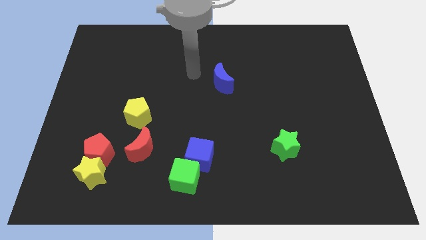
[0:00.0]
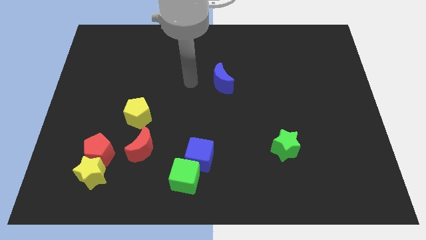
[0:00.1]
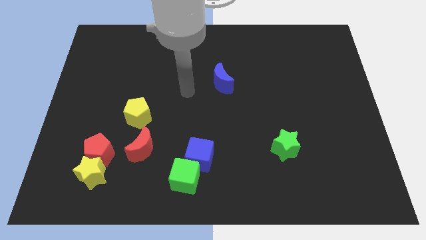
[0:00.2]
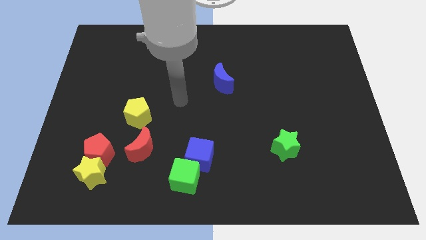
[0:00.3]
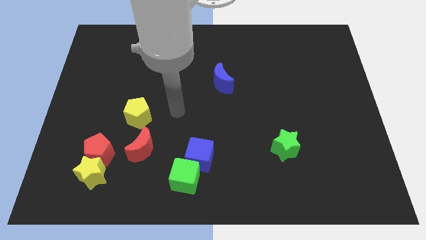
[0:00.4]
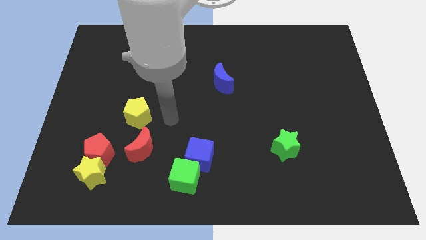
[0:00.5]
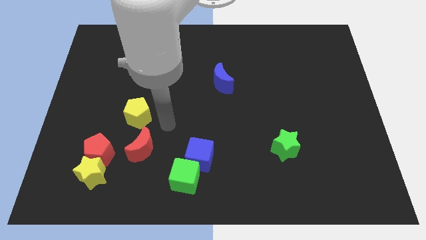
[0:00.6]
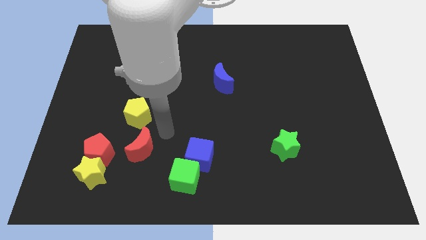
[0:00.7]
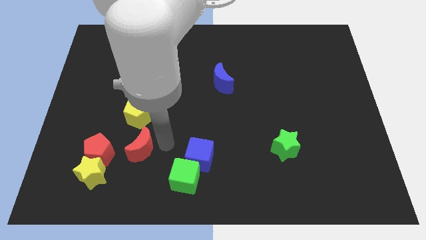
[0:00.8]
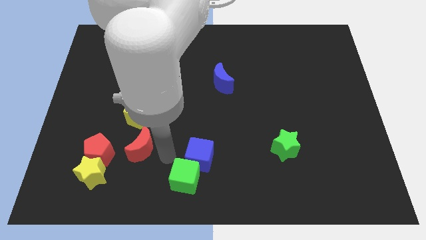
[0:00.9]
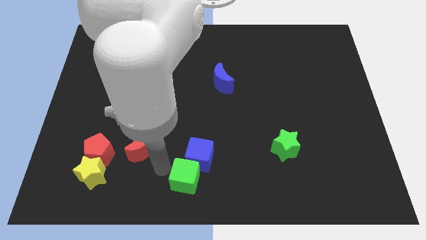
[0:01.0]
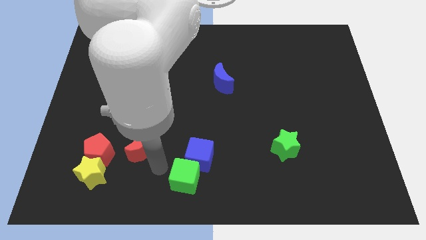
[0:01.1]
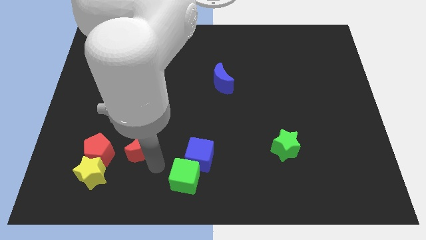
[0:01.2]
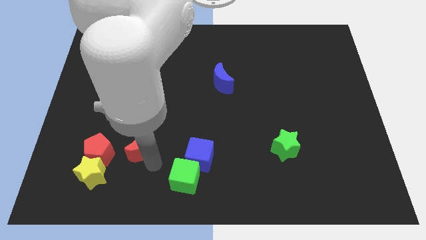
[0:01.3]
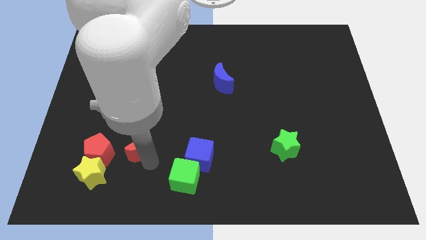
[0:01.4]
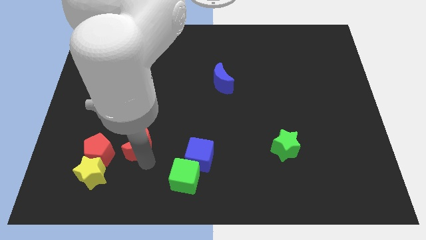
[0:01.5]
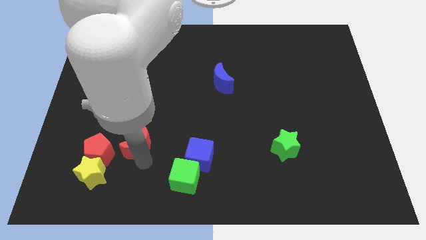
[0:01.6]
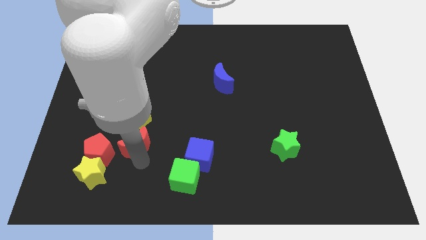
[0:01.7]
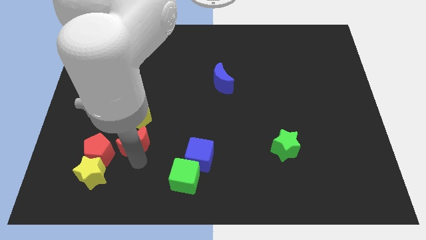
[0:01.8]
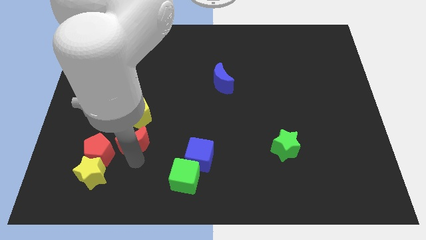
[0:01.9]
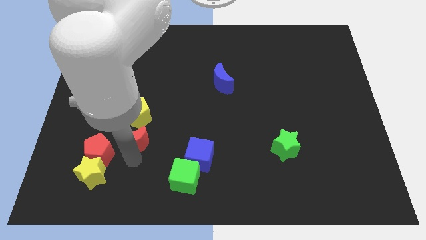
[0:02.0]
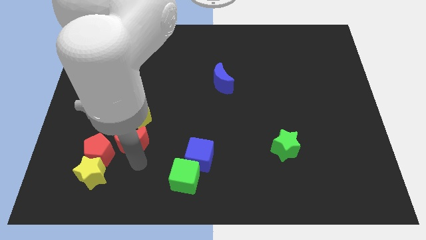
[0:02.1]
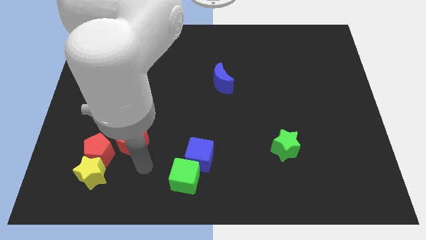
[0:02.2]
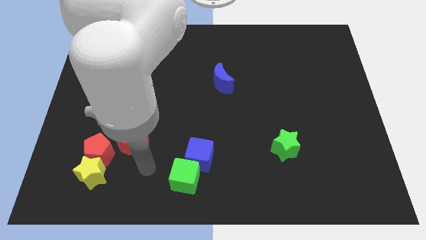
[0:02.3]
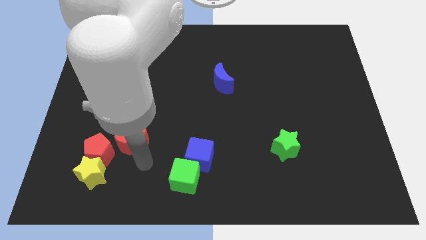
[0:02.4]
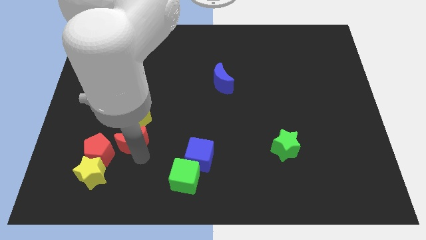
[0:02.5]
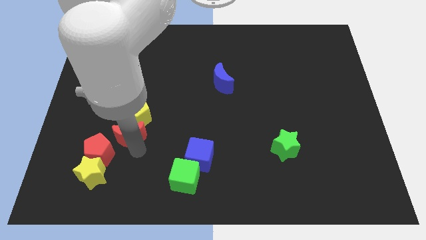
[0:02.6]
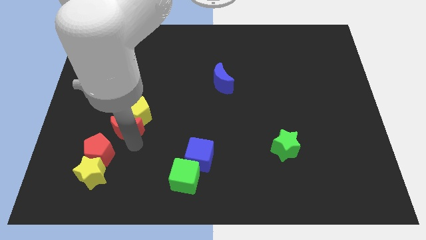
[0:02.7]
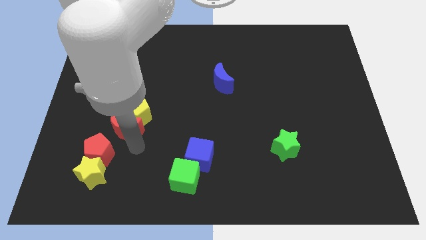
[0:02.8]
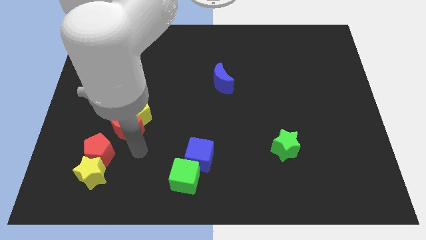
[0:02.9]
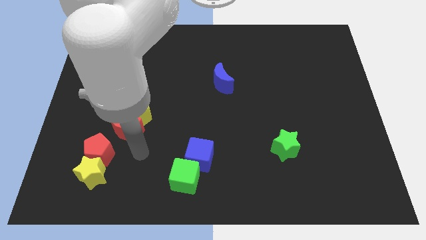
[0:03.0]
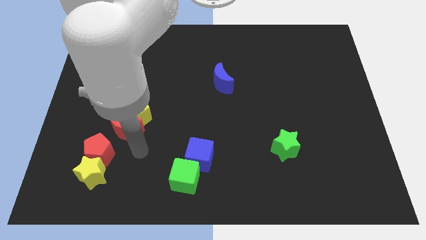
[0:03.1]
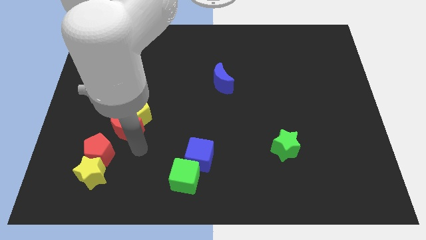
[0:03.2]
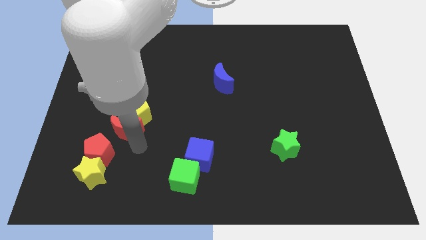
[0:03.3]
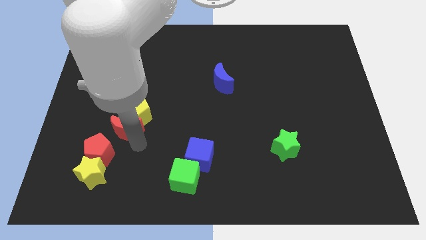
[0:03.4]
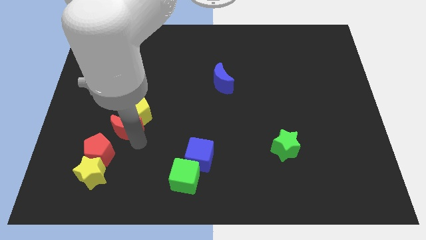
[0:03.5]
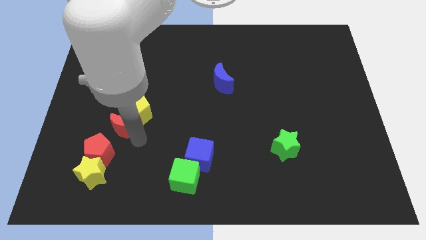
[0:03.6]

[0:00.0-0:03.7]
move the red moon diagonally upwards and to the left slightly

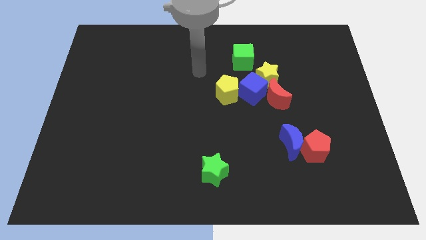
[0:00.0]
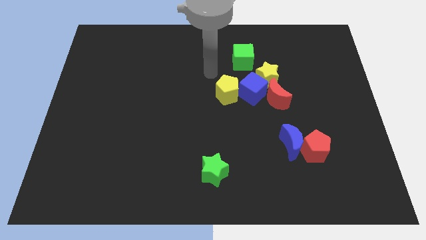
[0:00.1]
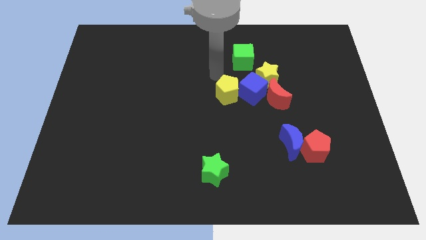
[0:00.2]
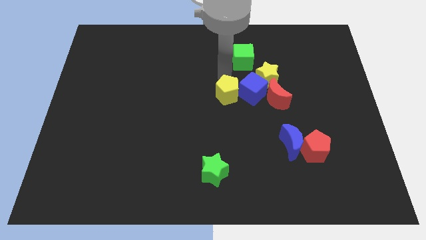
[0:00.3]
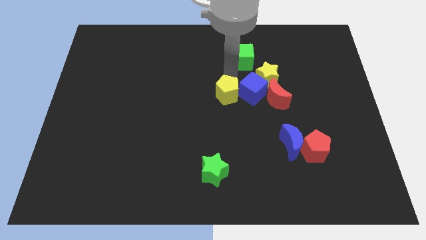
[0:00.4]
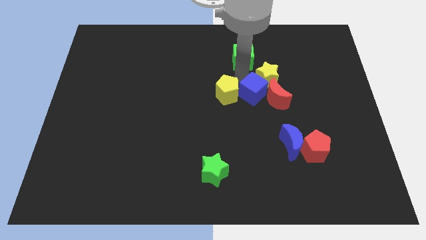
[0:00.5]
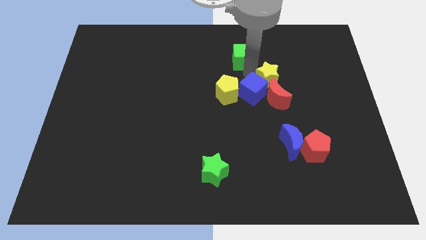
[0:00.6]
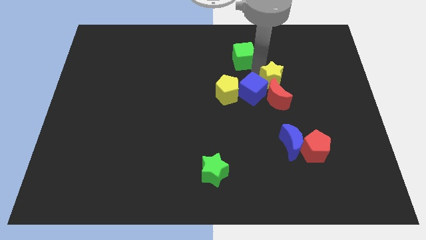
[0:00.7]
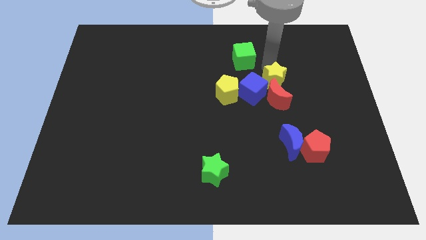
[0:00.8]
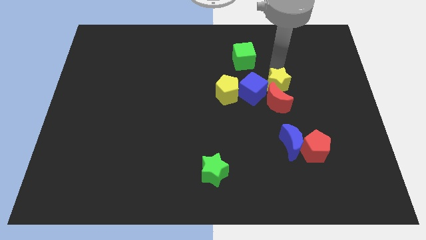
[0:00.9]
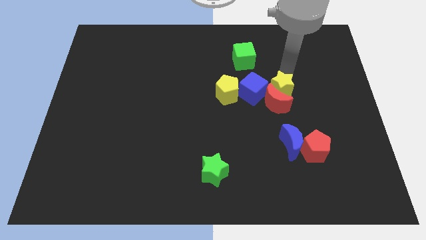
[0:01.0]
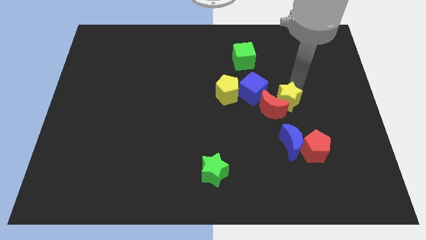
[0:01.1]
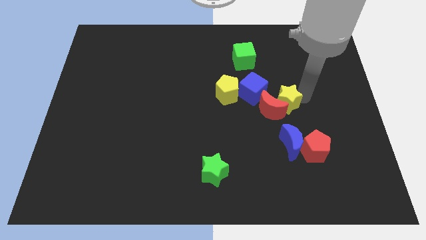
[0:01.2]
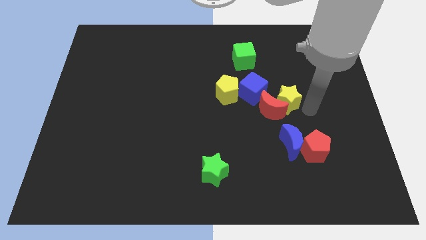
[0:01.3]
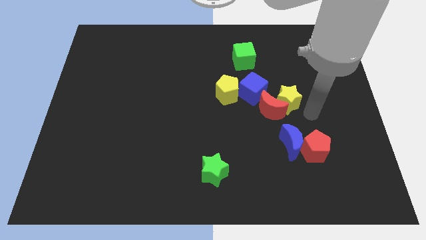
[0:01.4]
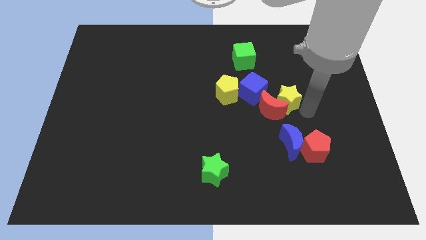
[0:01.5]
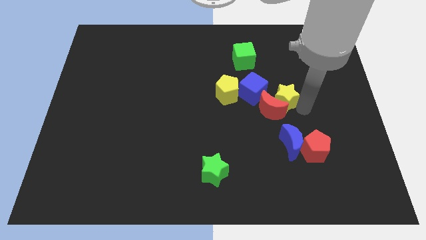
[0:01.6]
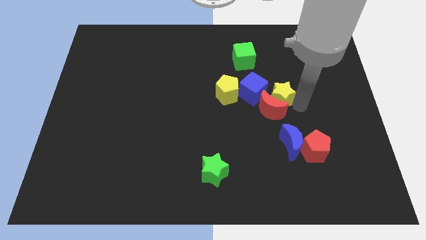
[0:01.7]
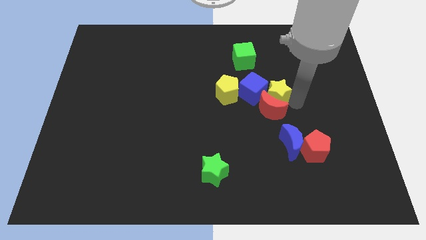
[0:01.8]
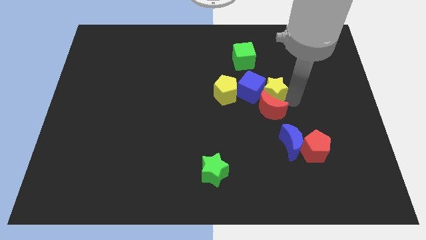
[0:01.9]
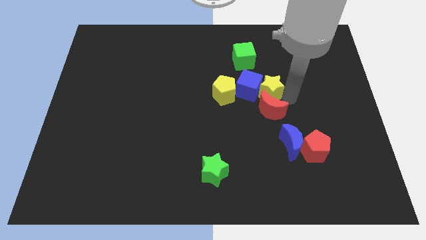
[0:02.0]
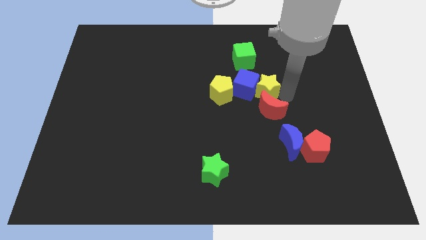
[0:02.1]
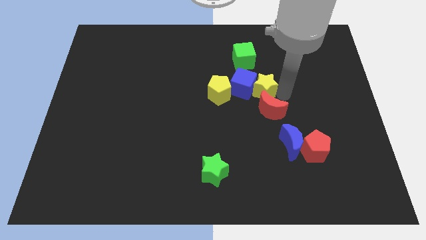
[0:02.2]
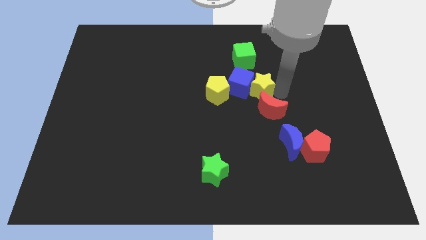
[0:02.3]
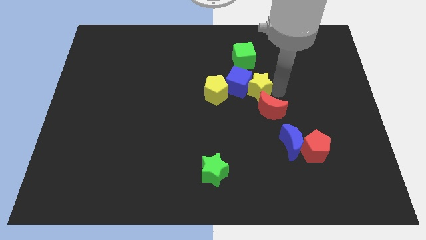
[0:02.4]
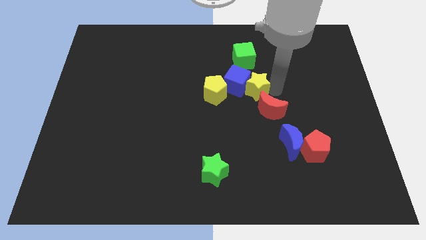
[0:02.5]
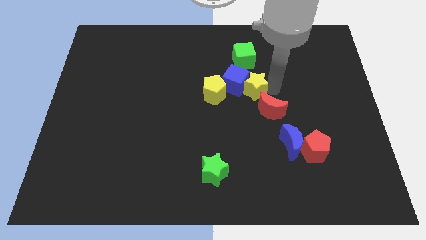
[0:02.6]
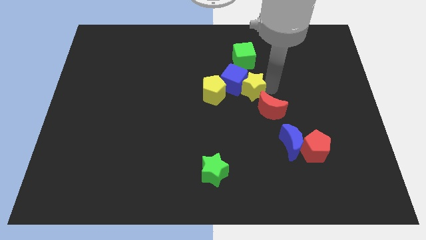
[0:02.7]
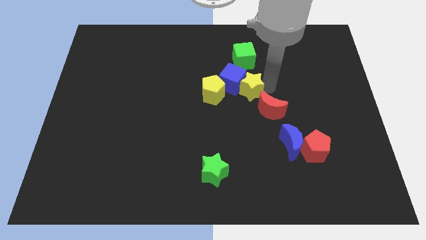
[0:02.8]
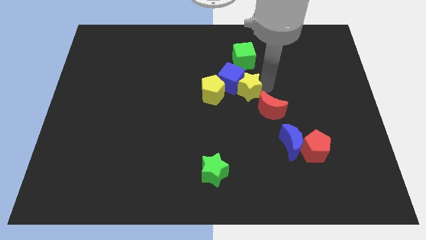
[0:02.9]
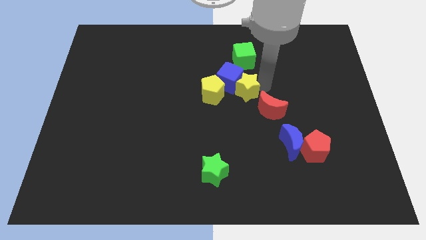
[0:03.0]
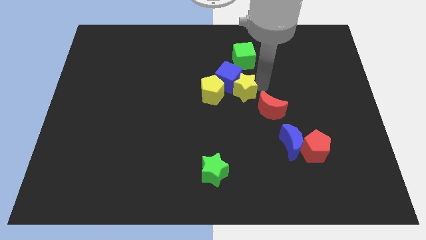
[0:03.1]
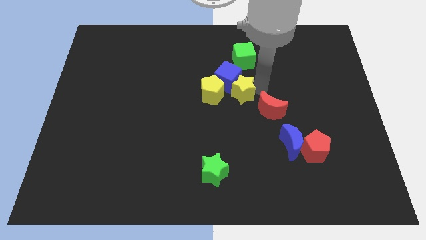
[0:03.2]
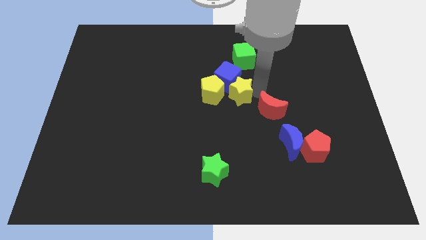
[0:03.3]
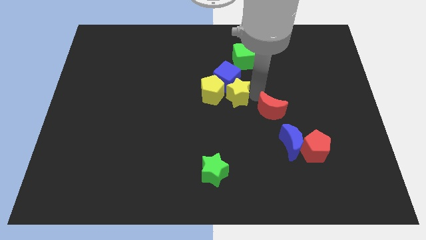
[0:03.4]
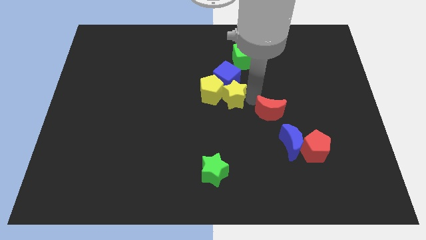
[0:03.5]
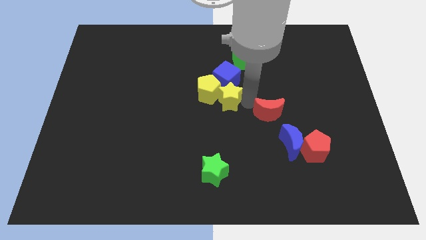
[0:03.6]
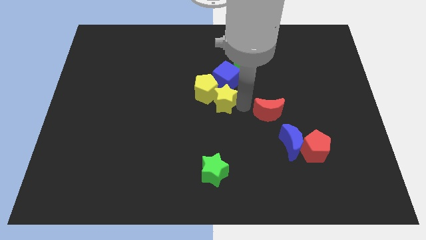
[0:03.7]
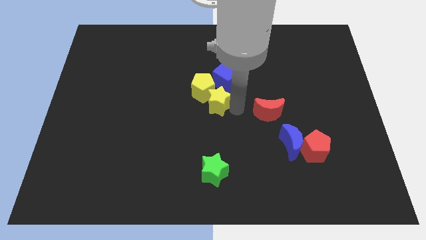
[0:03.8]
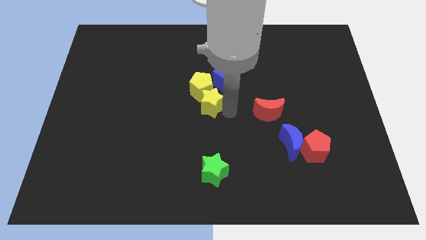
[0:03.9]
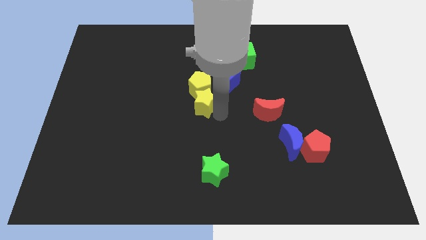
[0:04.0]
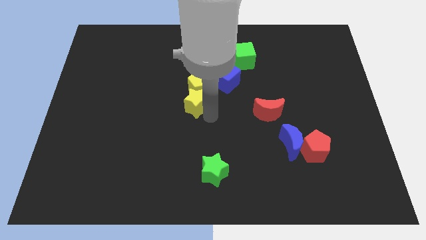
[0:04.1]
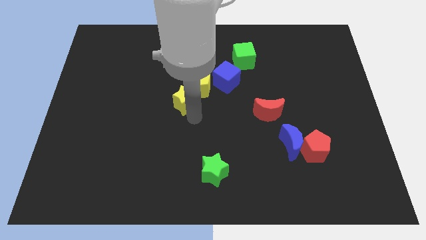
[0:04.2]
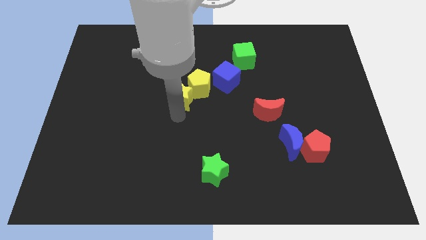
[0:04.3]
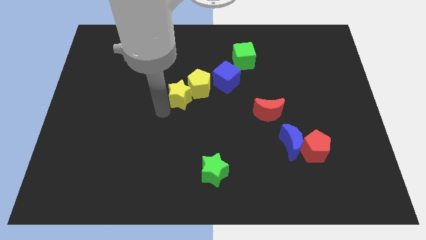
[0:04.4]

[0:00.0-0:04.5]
move the yellow star to the left
